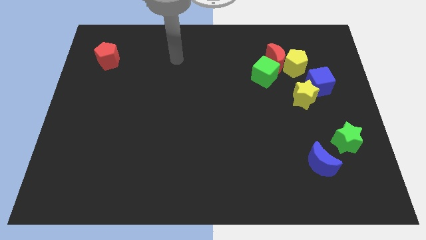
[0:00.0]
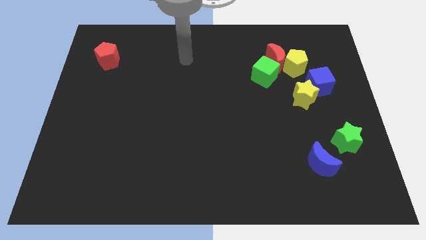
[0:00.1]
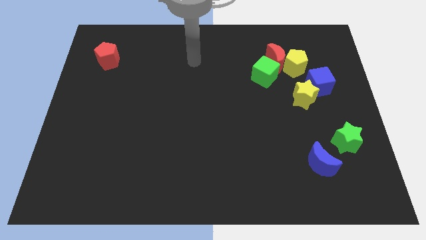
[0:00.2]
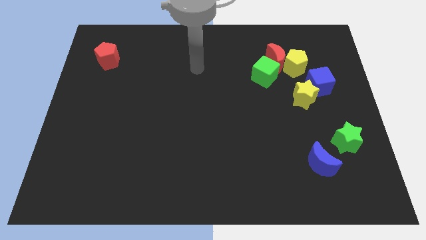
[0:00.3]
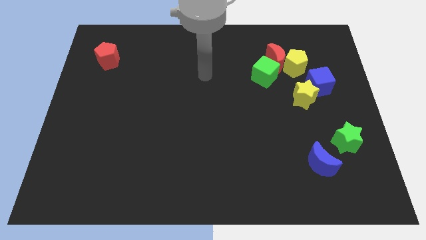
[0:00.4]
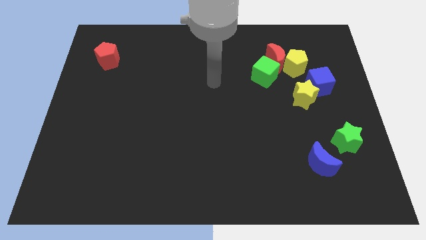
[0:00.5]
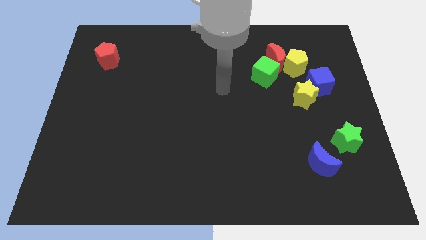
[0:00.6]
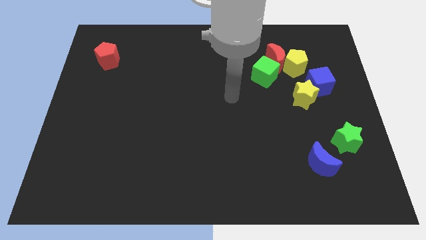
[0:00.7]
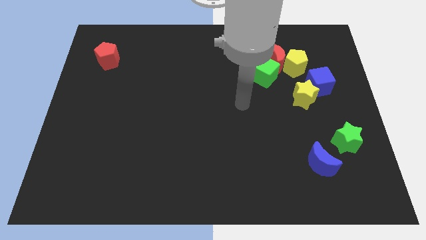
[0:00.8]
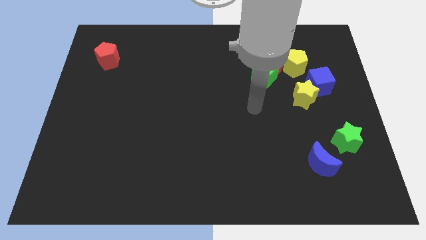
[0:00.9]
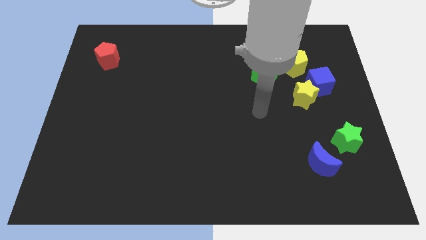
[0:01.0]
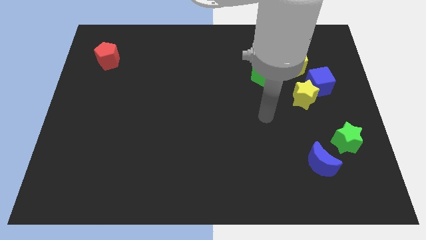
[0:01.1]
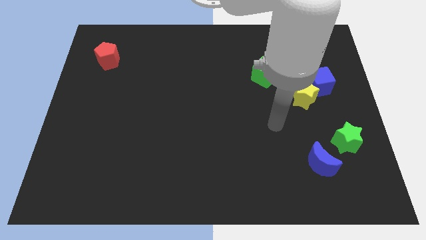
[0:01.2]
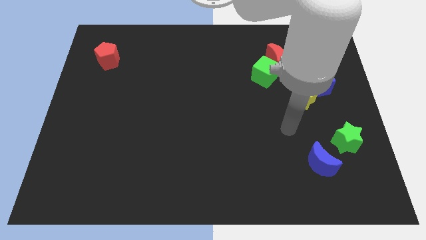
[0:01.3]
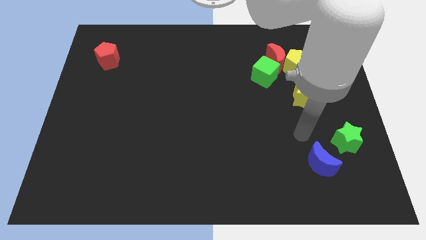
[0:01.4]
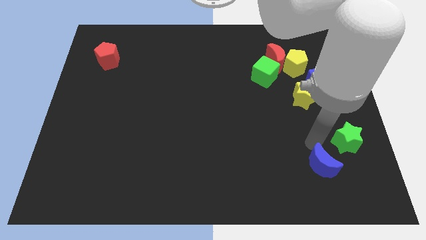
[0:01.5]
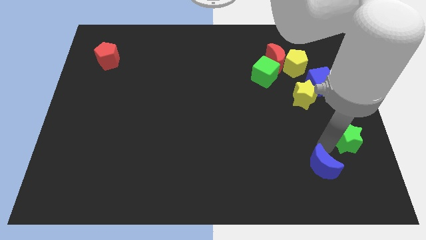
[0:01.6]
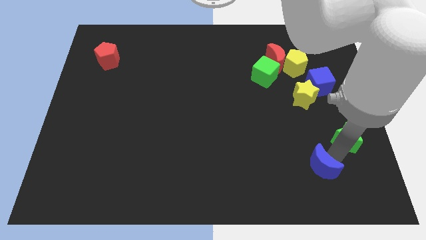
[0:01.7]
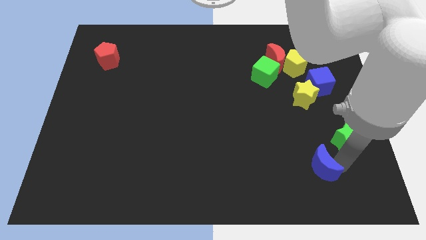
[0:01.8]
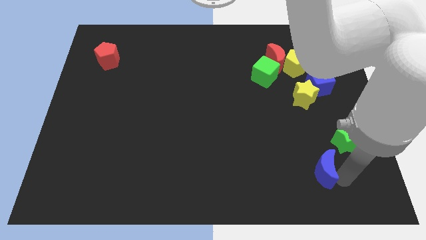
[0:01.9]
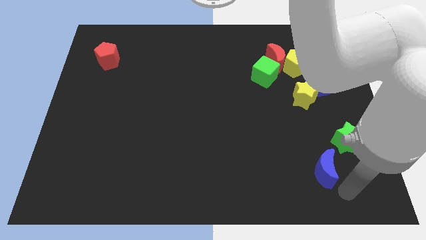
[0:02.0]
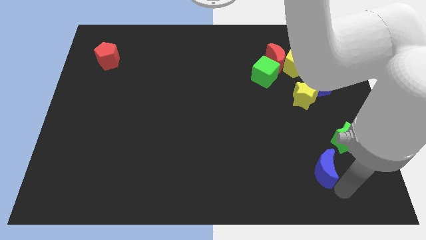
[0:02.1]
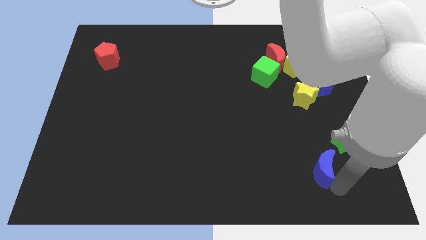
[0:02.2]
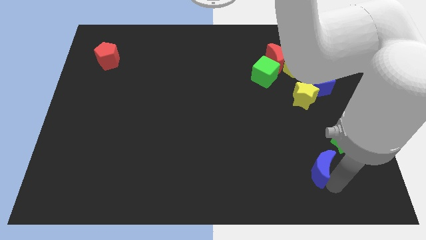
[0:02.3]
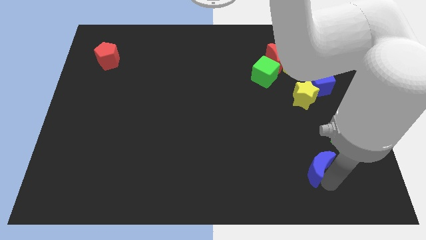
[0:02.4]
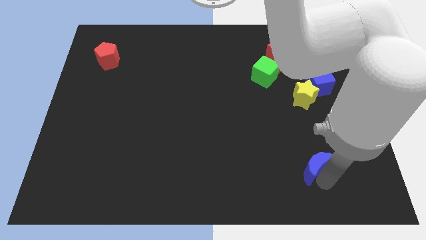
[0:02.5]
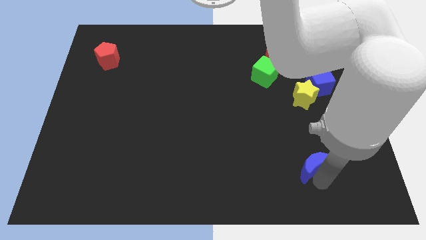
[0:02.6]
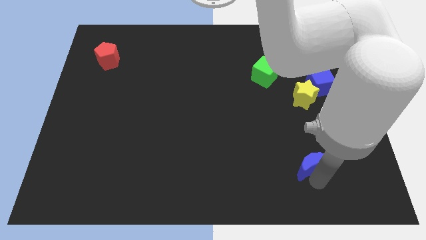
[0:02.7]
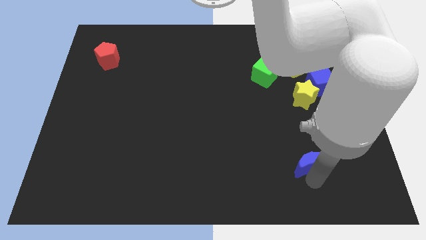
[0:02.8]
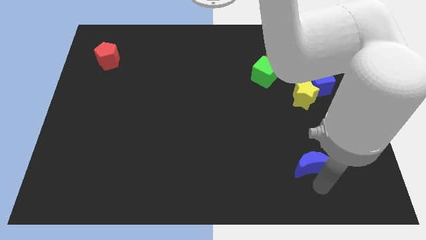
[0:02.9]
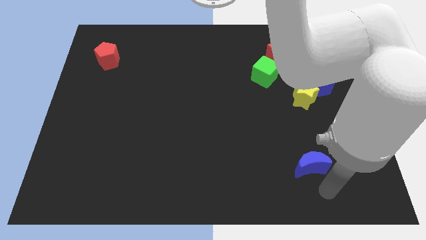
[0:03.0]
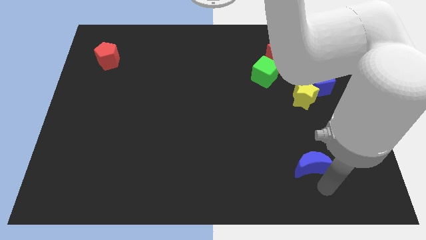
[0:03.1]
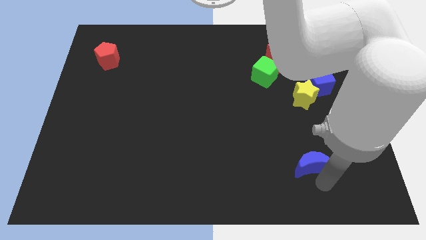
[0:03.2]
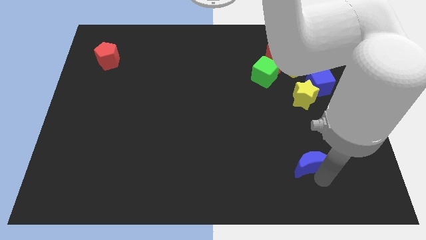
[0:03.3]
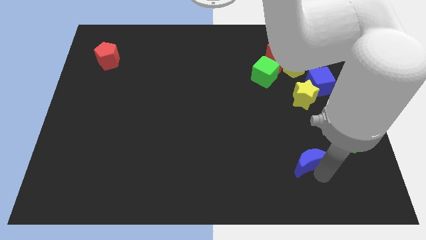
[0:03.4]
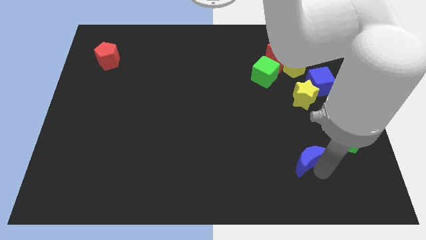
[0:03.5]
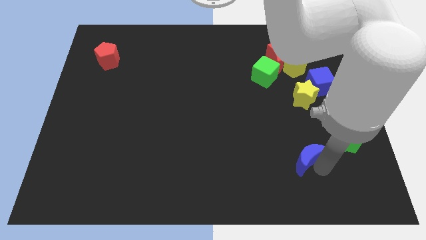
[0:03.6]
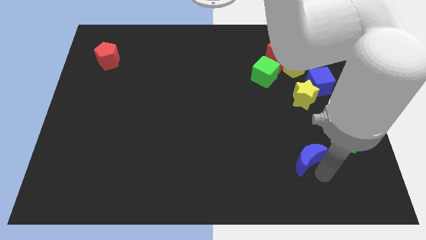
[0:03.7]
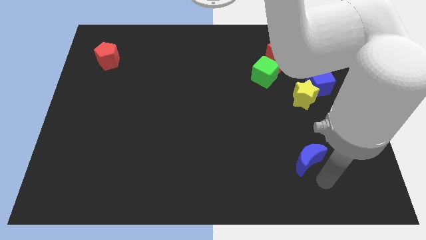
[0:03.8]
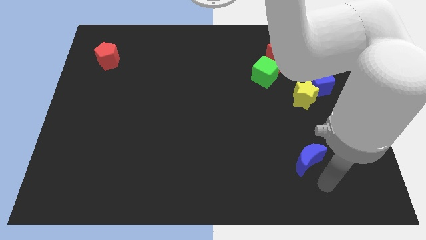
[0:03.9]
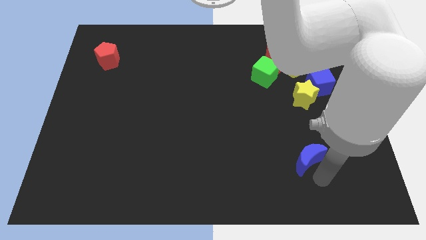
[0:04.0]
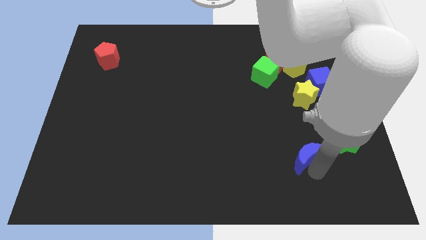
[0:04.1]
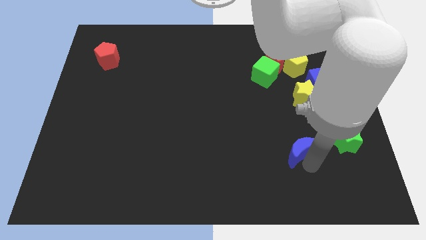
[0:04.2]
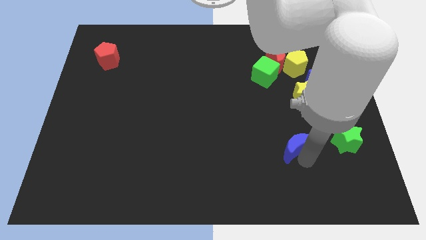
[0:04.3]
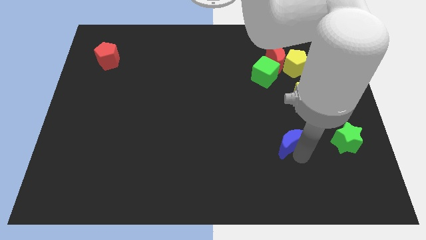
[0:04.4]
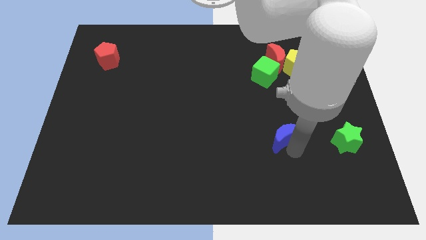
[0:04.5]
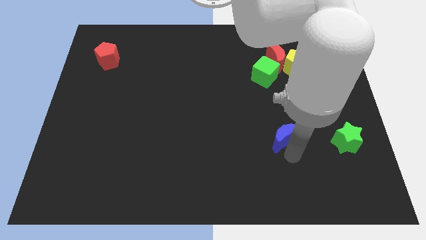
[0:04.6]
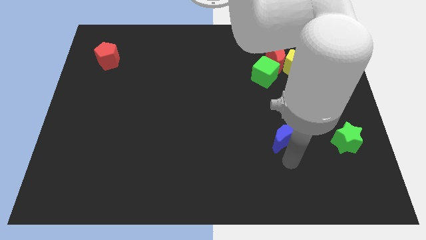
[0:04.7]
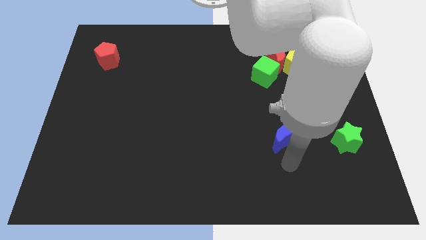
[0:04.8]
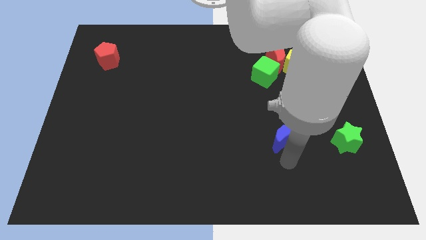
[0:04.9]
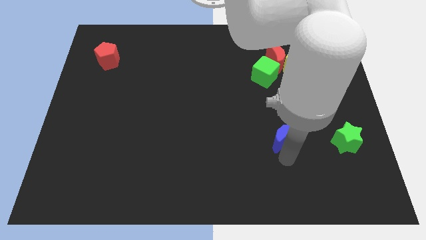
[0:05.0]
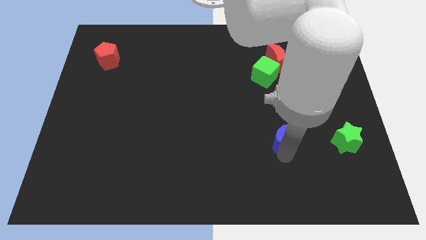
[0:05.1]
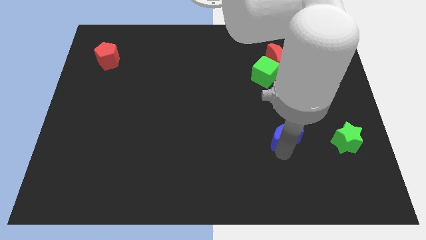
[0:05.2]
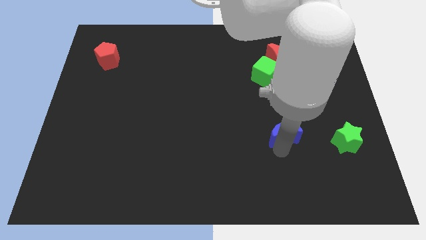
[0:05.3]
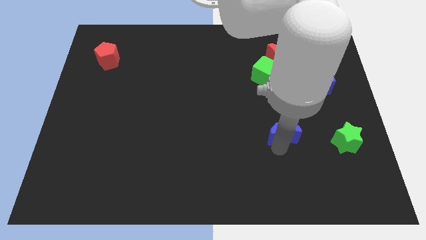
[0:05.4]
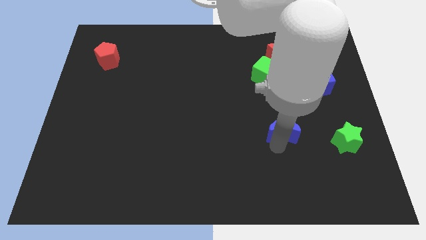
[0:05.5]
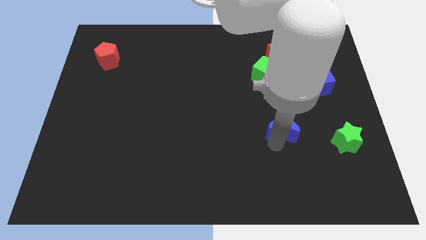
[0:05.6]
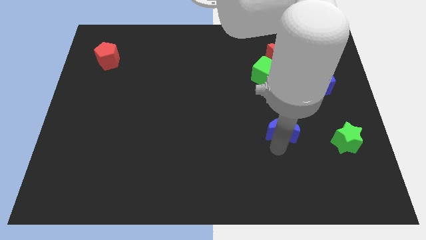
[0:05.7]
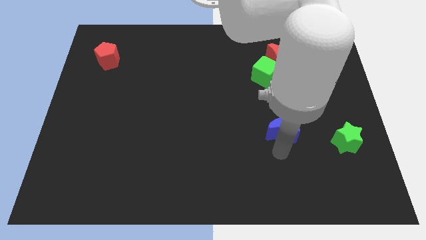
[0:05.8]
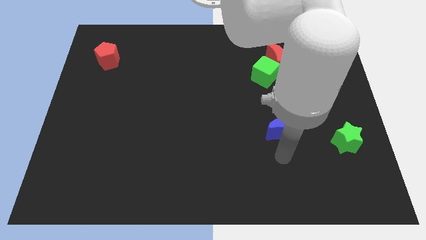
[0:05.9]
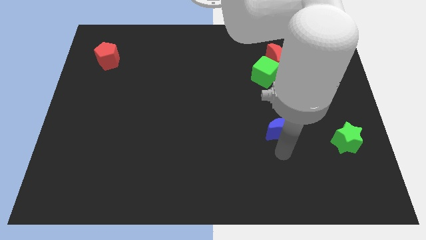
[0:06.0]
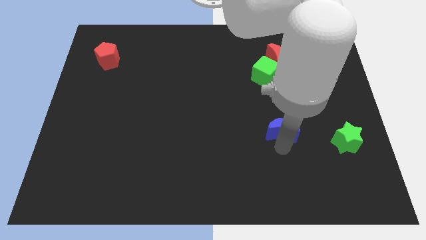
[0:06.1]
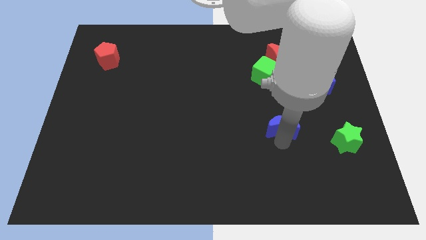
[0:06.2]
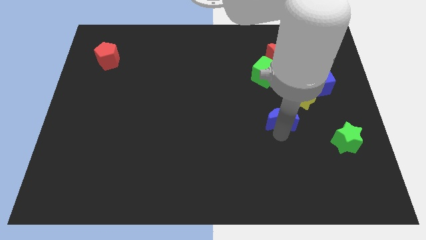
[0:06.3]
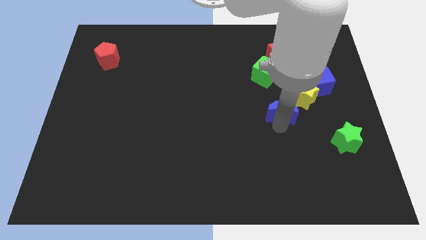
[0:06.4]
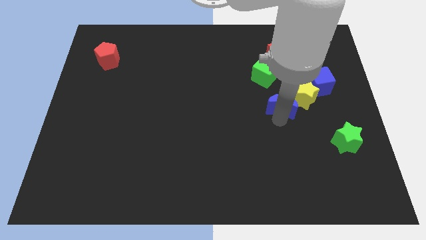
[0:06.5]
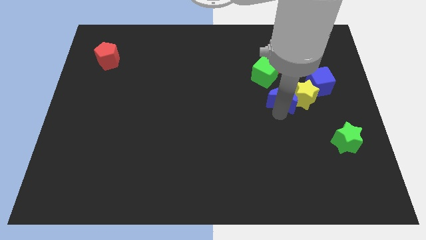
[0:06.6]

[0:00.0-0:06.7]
move the blue moon to the bottom right of the green cube
